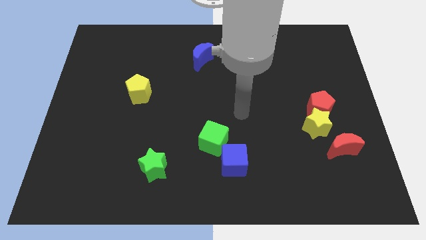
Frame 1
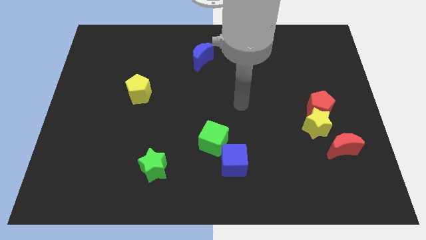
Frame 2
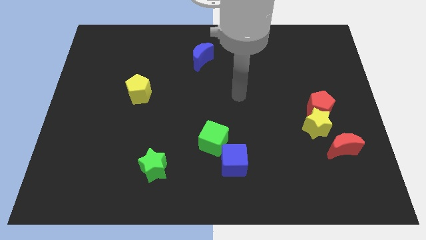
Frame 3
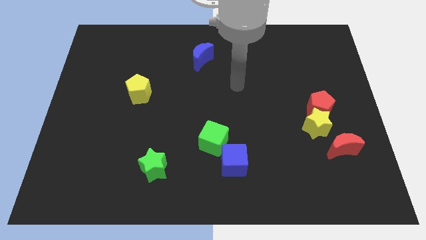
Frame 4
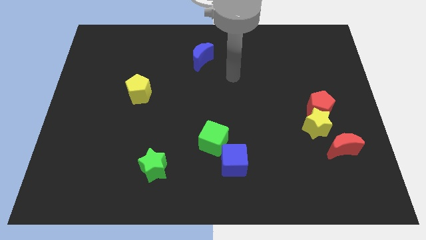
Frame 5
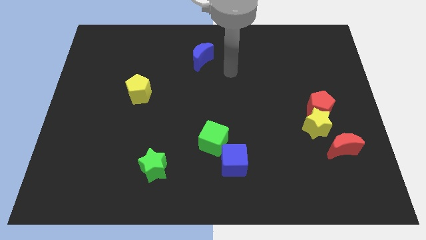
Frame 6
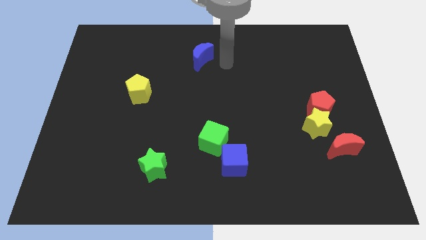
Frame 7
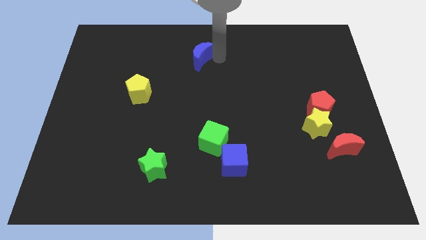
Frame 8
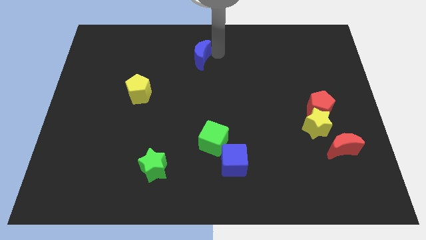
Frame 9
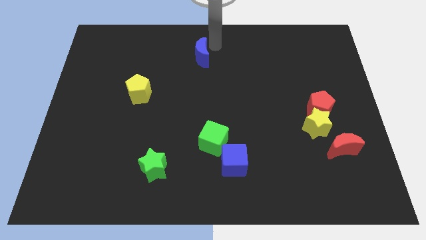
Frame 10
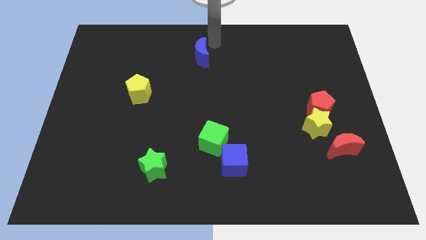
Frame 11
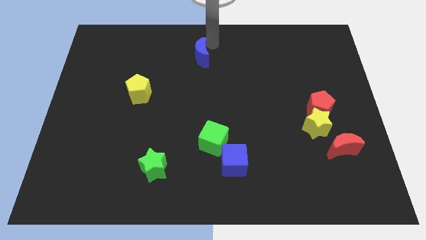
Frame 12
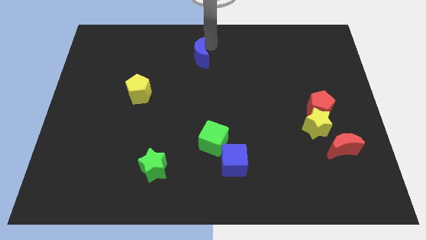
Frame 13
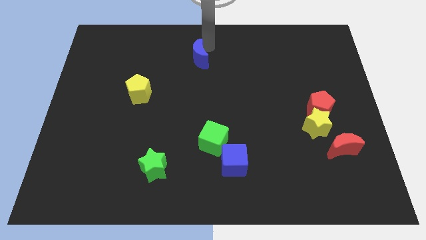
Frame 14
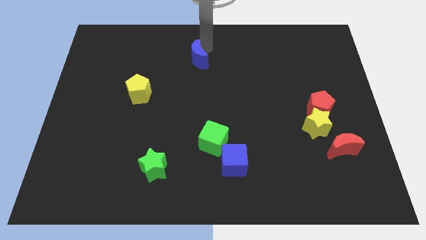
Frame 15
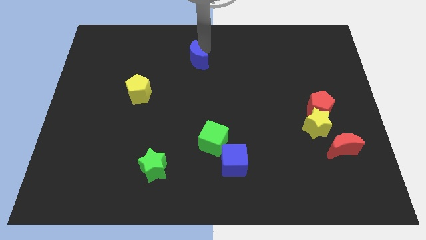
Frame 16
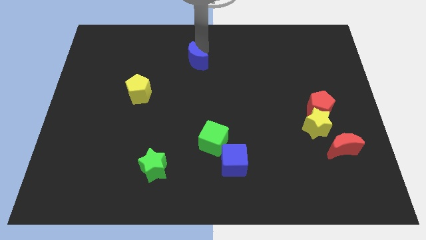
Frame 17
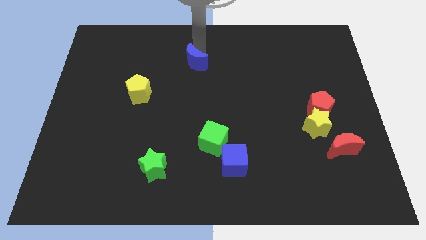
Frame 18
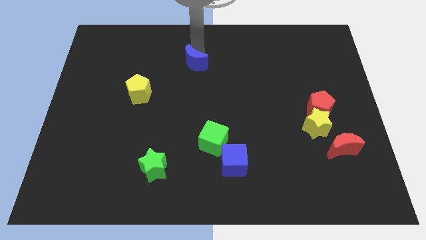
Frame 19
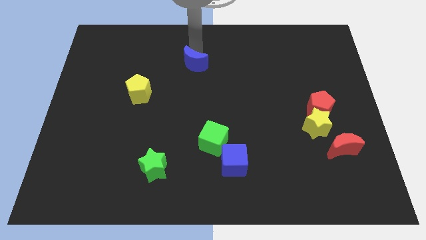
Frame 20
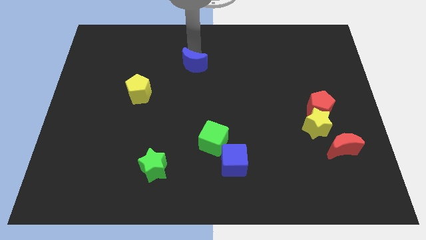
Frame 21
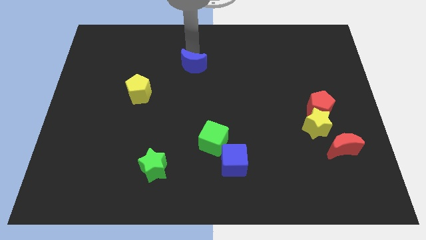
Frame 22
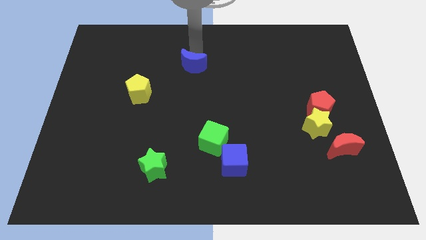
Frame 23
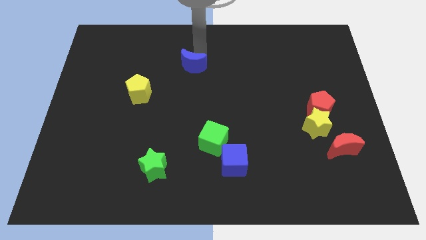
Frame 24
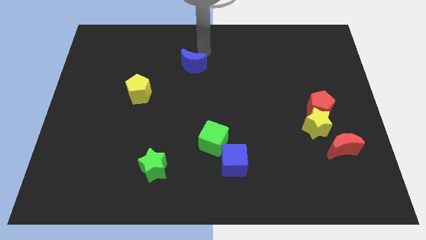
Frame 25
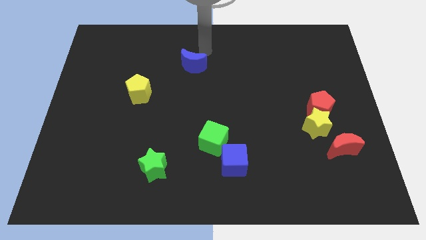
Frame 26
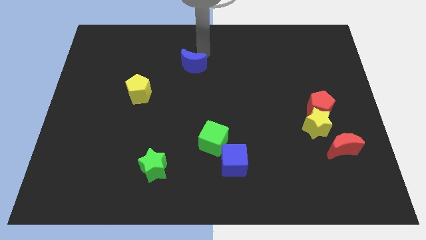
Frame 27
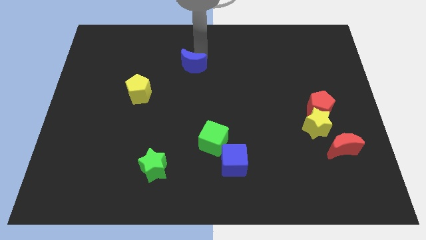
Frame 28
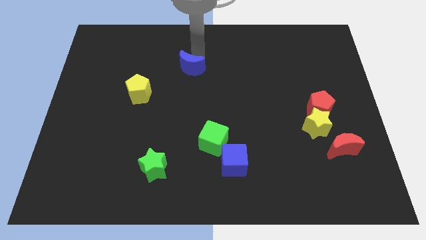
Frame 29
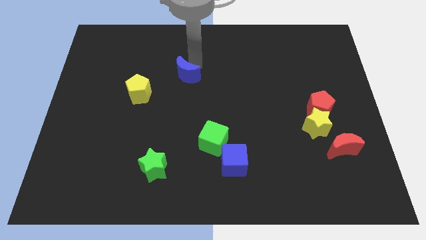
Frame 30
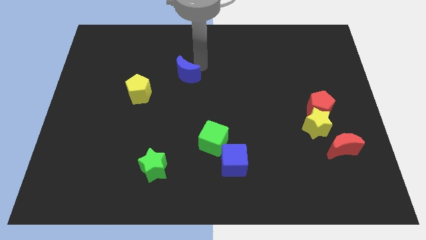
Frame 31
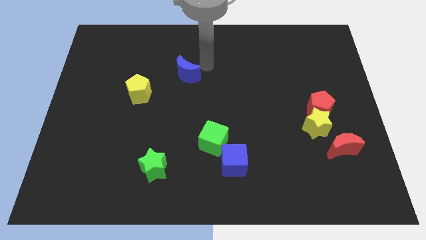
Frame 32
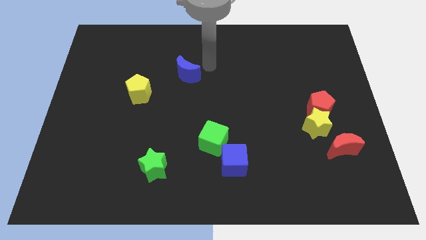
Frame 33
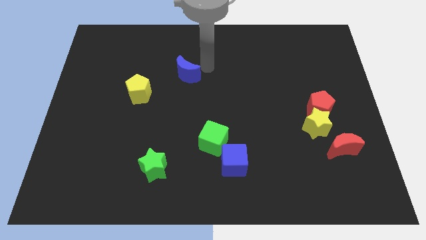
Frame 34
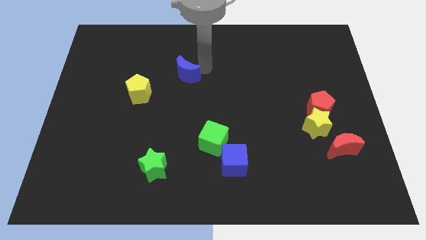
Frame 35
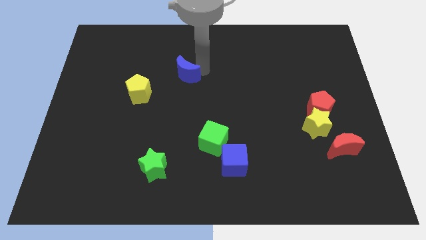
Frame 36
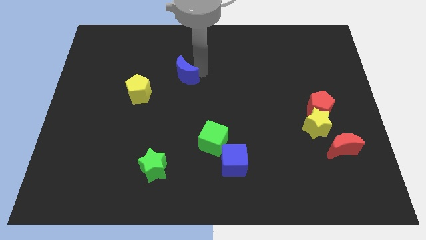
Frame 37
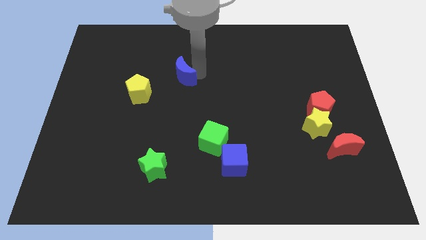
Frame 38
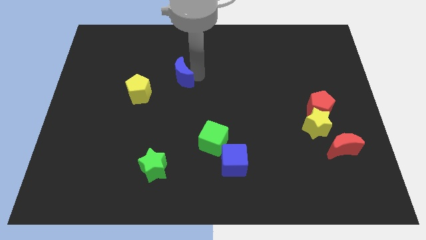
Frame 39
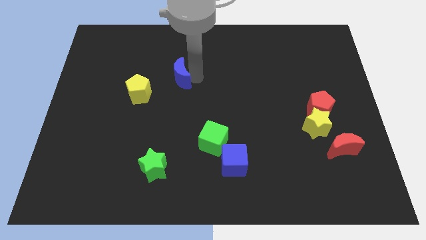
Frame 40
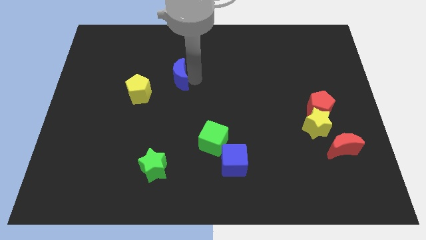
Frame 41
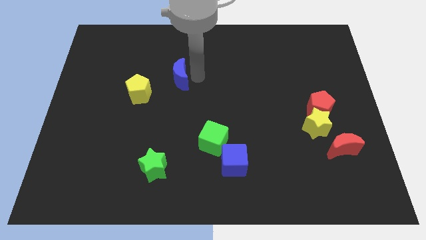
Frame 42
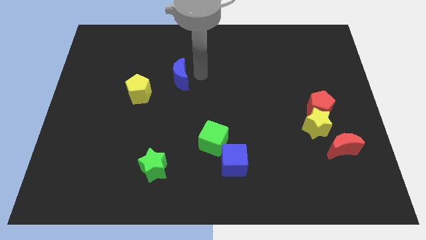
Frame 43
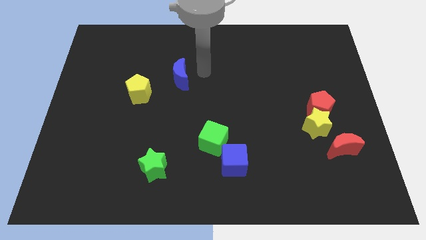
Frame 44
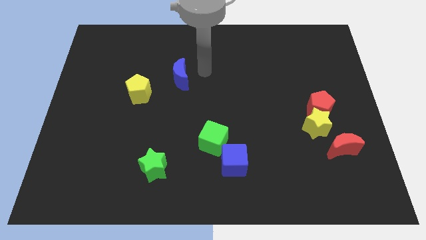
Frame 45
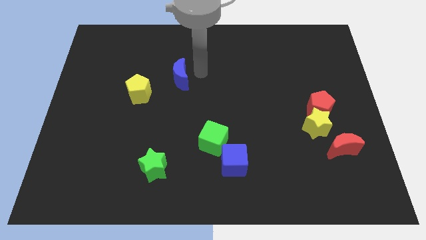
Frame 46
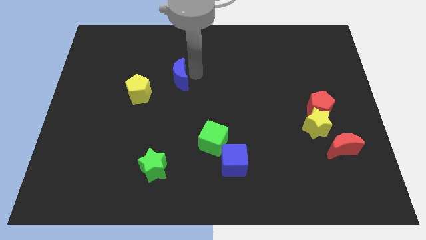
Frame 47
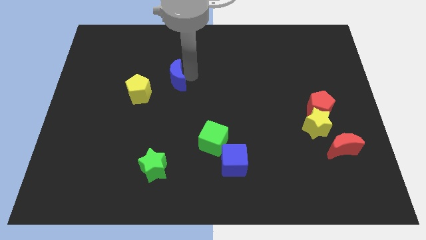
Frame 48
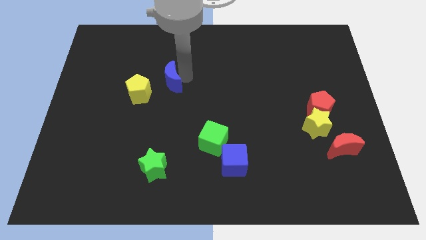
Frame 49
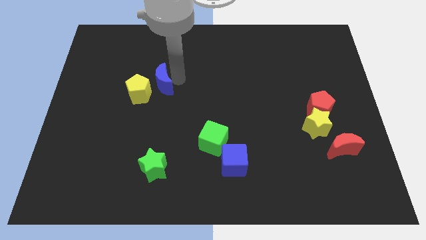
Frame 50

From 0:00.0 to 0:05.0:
move the blue moon towards the yellow pentagon

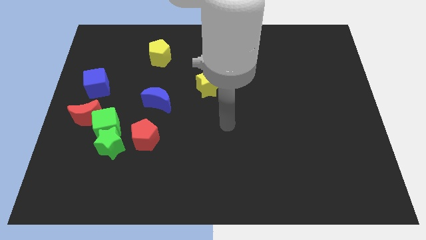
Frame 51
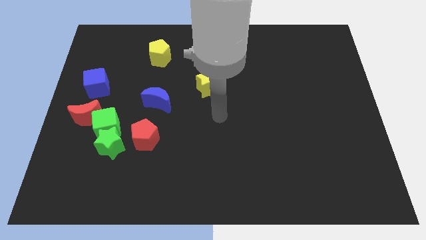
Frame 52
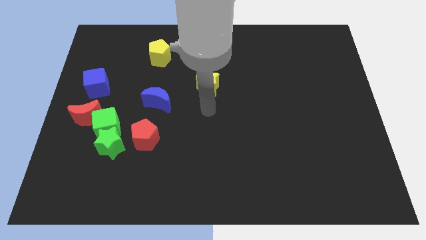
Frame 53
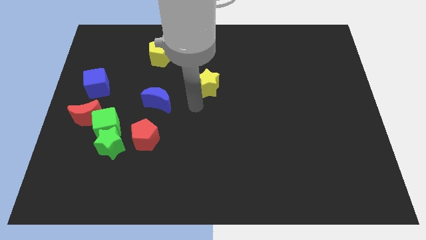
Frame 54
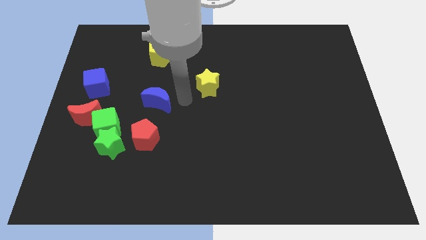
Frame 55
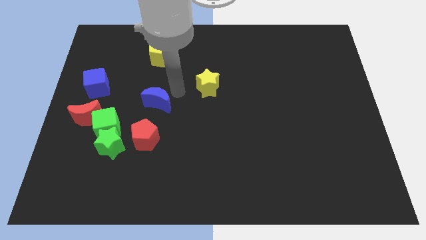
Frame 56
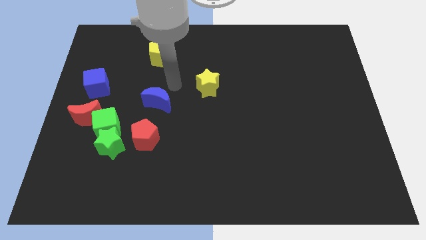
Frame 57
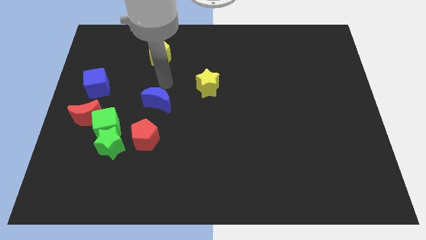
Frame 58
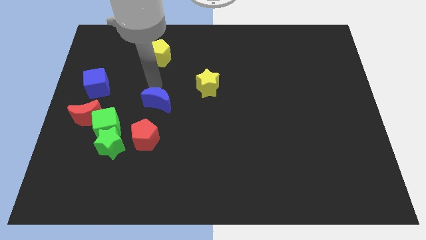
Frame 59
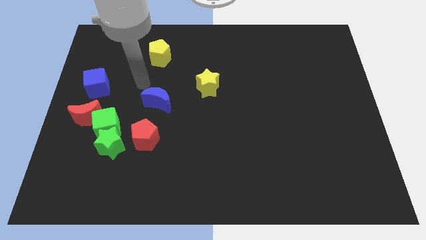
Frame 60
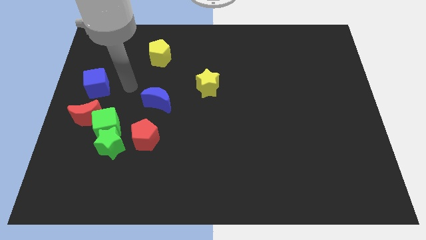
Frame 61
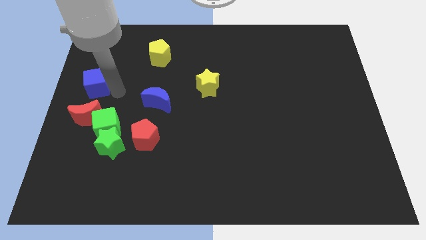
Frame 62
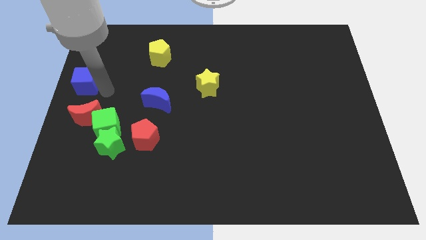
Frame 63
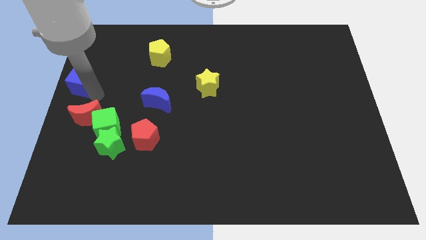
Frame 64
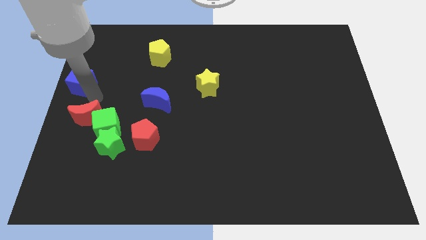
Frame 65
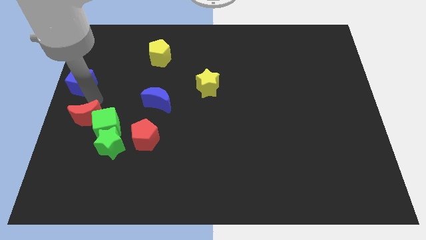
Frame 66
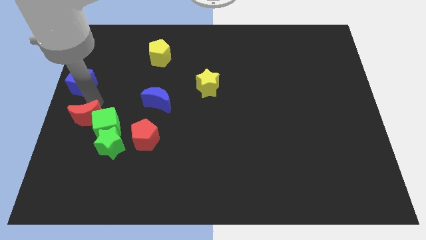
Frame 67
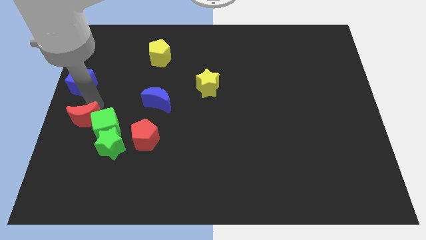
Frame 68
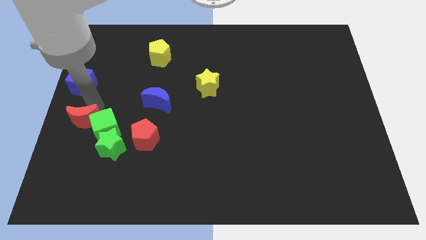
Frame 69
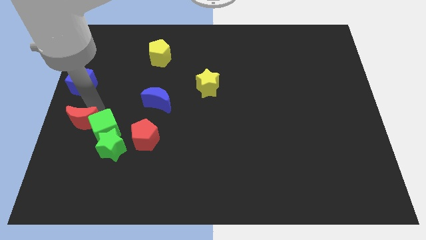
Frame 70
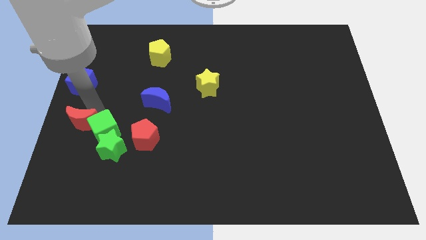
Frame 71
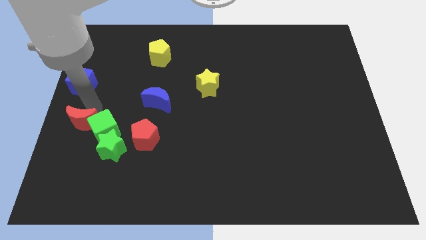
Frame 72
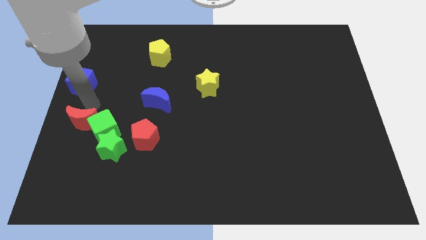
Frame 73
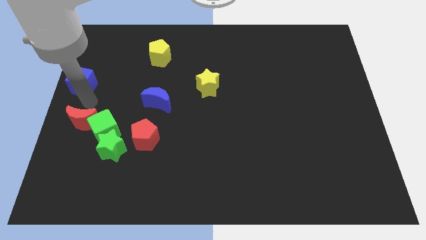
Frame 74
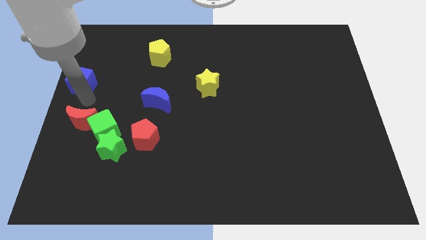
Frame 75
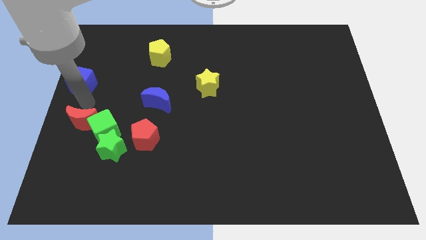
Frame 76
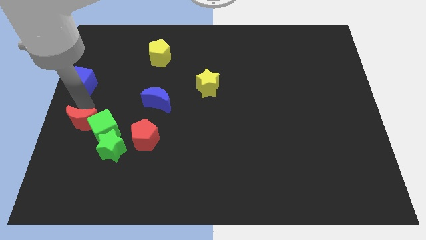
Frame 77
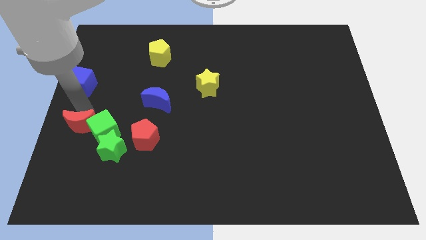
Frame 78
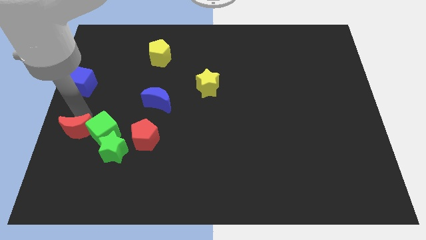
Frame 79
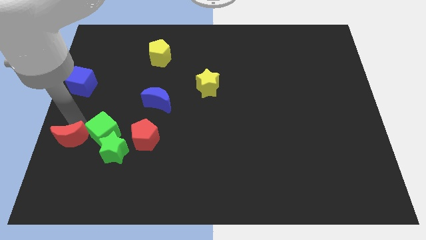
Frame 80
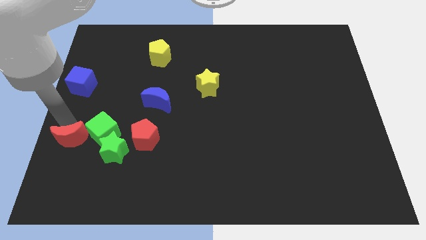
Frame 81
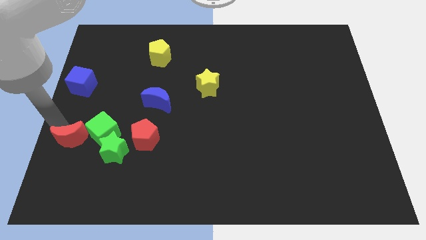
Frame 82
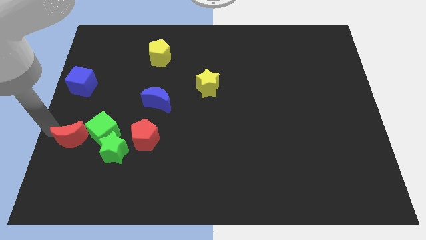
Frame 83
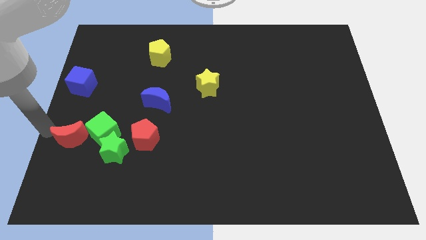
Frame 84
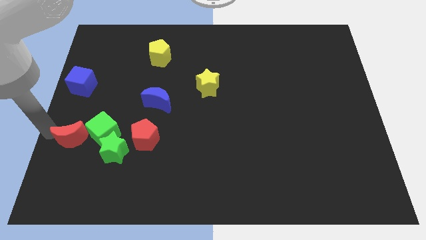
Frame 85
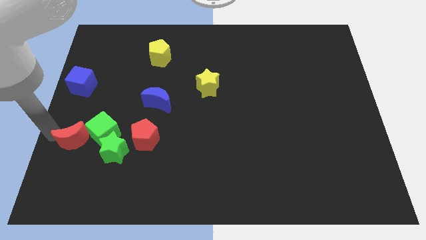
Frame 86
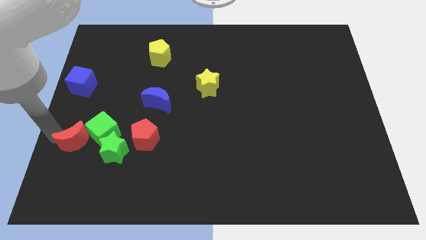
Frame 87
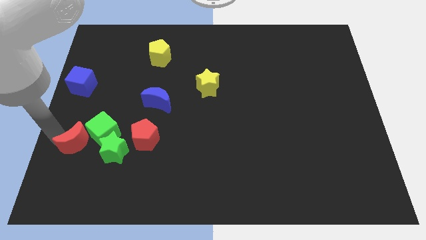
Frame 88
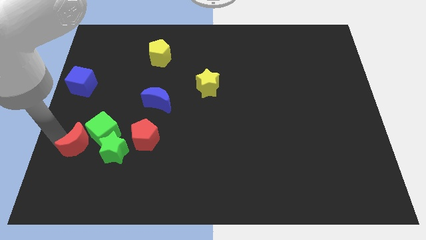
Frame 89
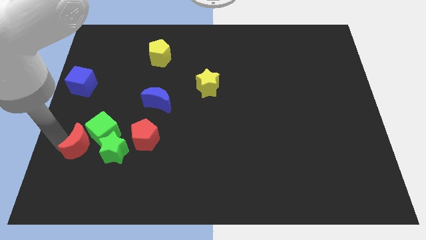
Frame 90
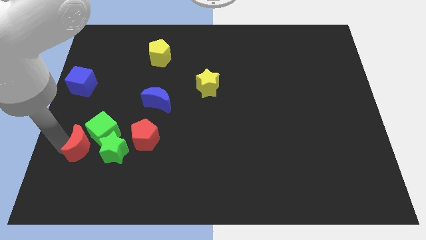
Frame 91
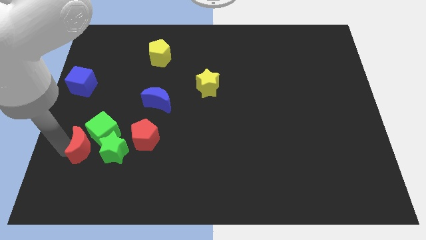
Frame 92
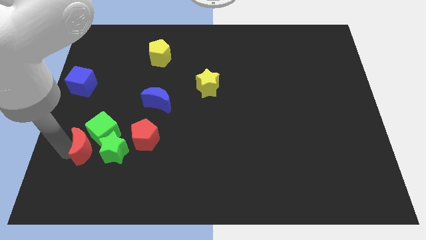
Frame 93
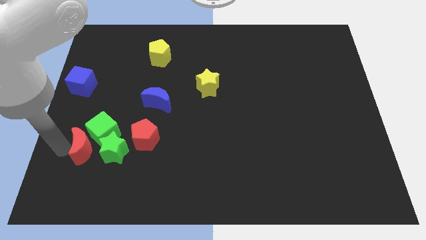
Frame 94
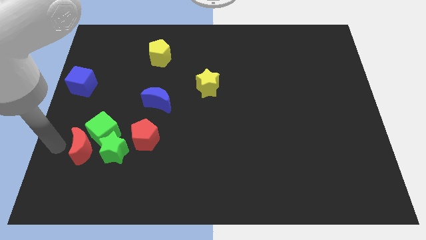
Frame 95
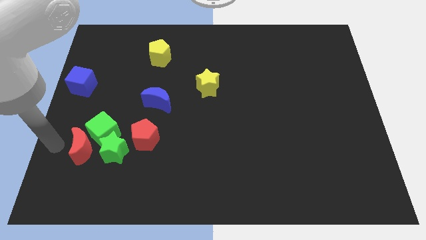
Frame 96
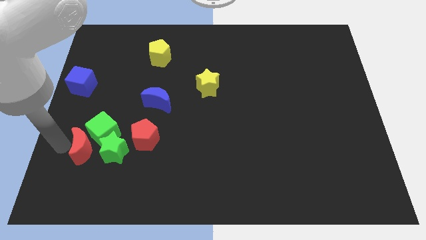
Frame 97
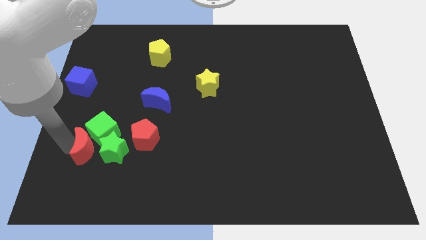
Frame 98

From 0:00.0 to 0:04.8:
put the red moon to the green star
